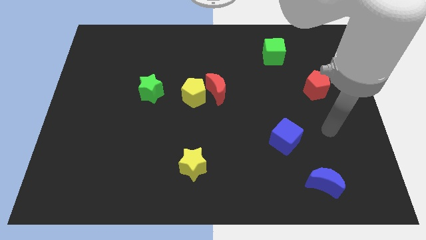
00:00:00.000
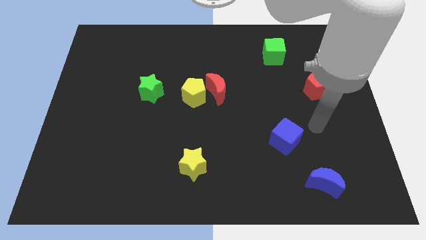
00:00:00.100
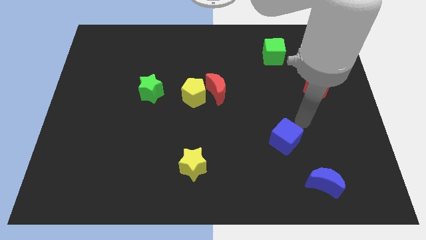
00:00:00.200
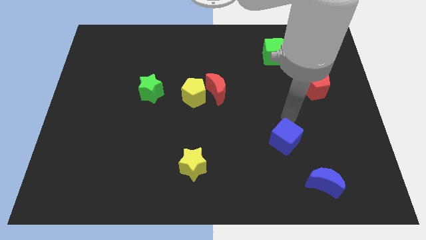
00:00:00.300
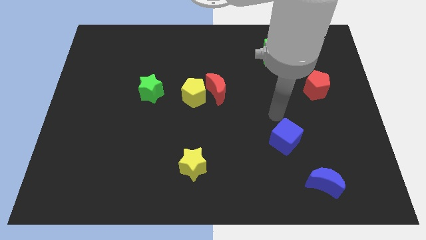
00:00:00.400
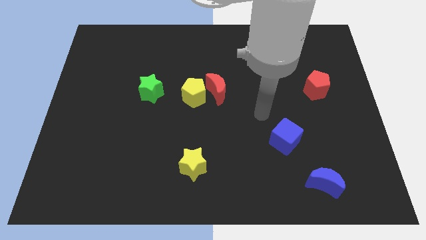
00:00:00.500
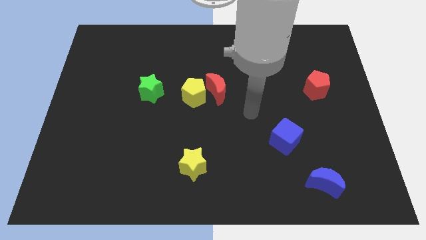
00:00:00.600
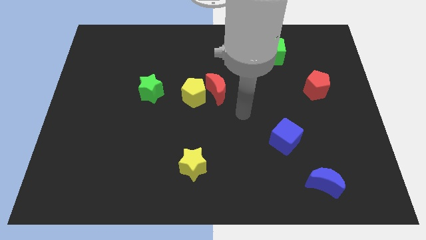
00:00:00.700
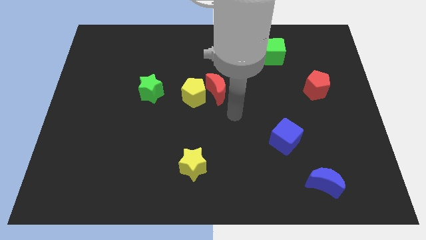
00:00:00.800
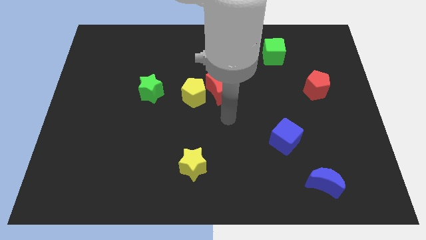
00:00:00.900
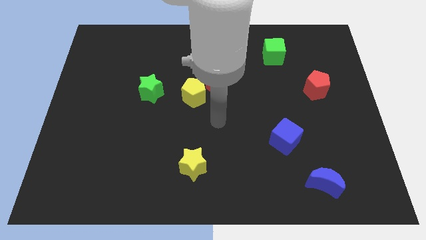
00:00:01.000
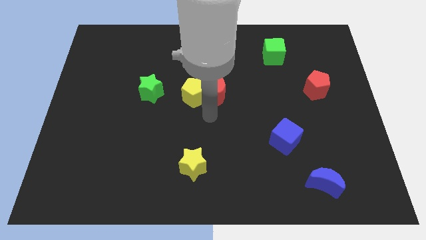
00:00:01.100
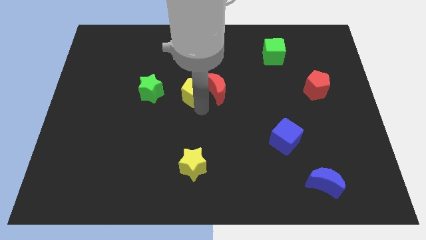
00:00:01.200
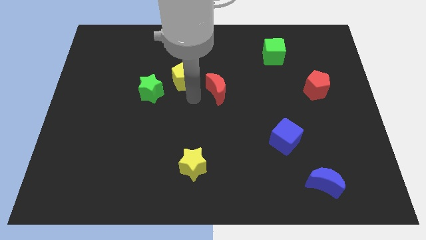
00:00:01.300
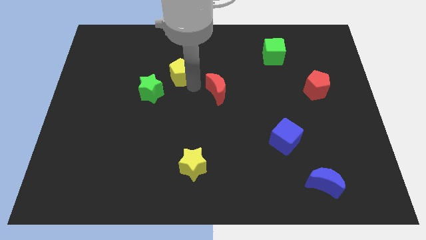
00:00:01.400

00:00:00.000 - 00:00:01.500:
pull the red moon apart from the yellow pentagon

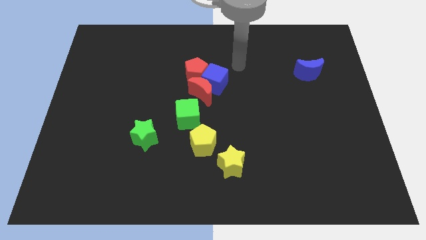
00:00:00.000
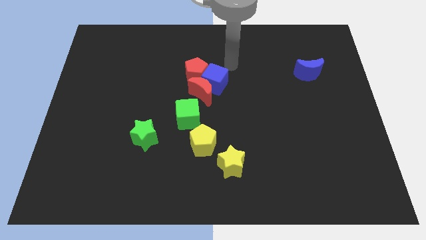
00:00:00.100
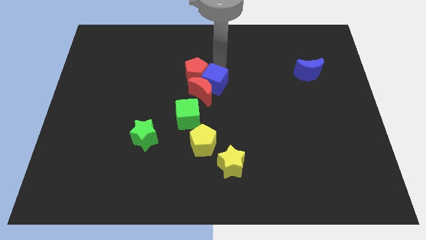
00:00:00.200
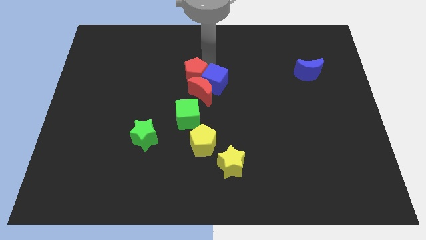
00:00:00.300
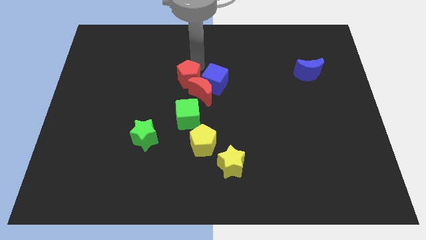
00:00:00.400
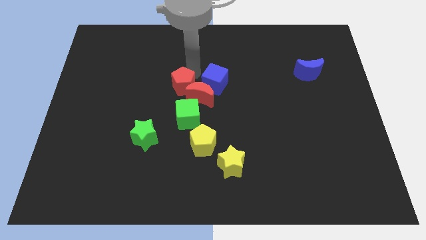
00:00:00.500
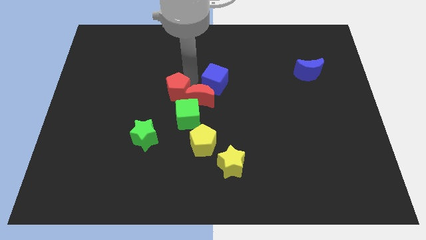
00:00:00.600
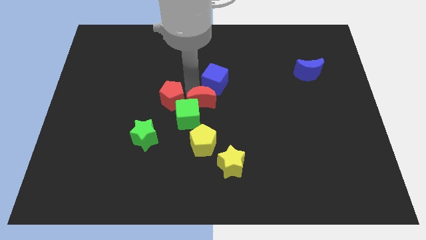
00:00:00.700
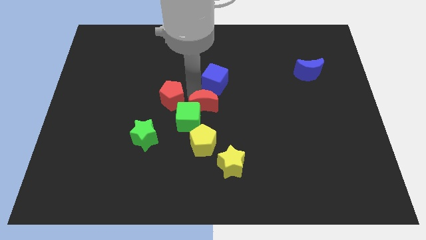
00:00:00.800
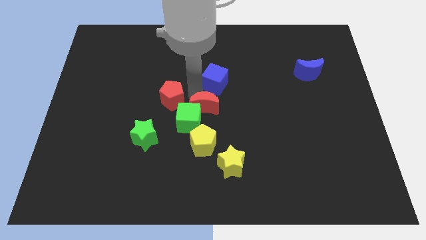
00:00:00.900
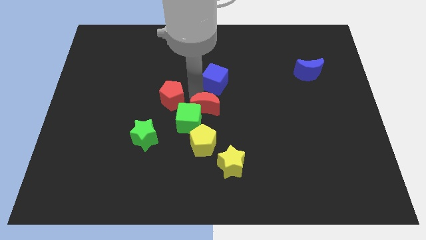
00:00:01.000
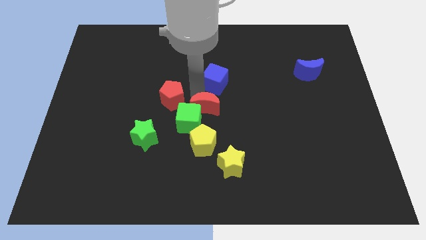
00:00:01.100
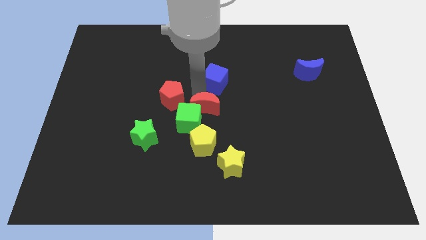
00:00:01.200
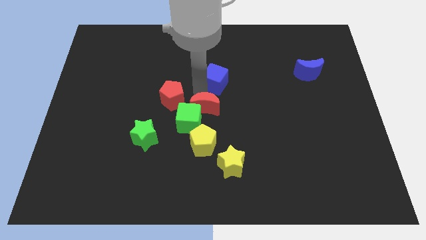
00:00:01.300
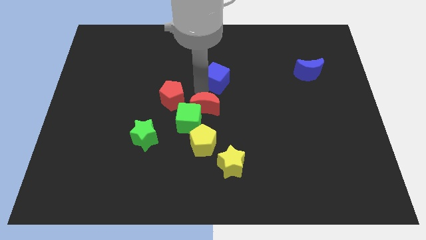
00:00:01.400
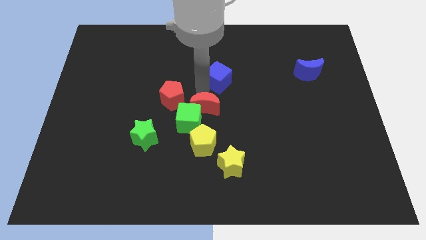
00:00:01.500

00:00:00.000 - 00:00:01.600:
move the blue cube away from the red moon and red pentagon

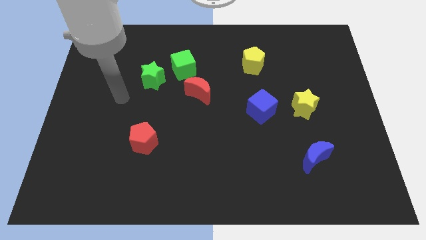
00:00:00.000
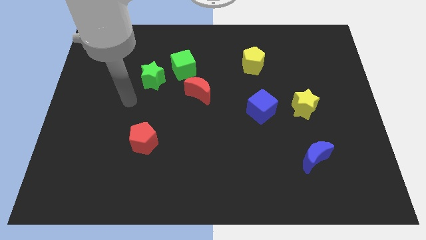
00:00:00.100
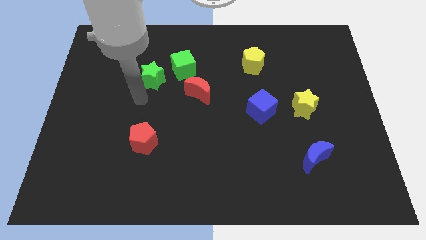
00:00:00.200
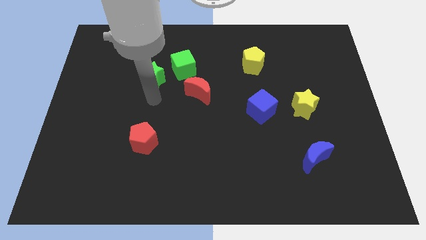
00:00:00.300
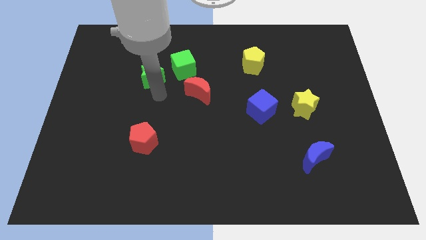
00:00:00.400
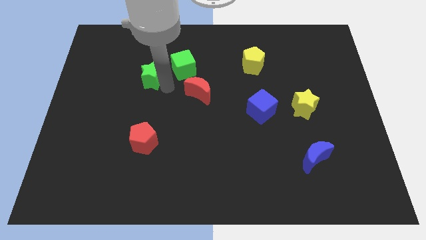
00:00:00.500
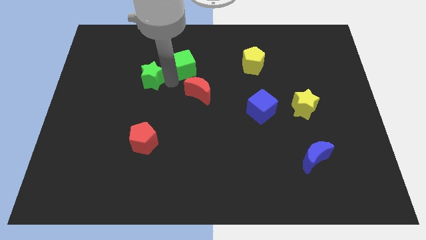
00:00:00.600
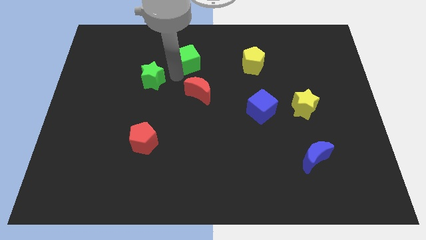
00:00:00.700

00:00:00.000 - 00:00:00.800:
move the green star away from the green cube

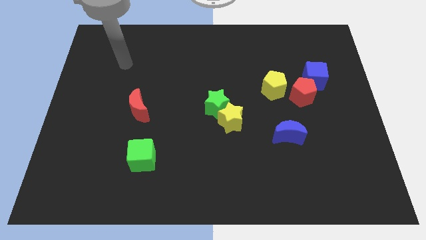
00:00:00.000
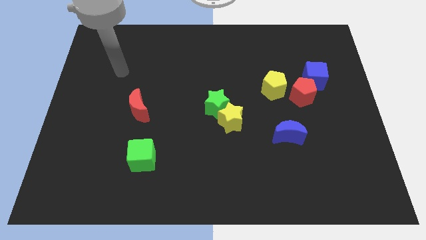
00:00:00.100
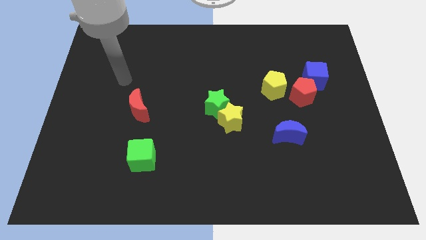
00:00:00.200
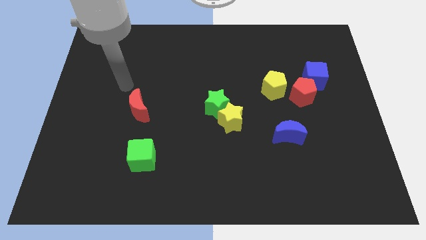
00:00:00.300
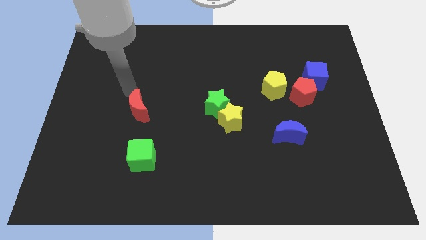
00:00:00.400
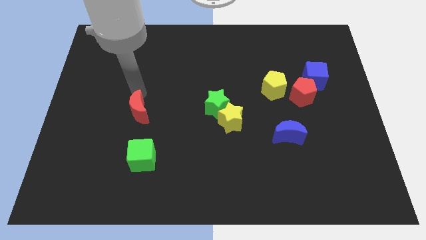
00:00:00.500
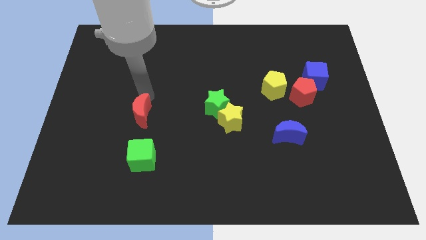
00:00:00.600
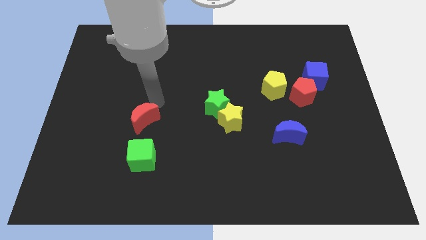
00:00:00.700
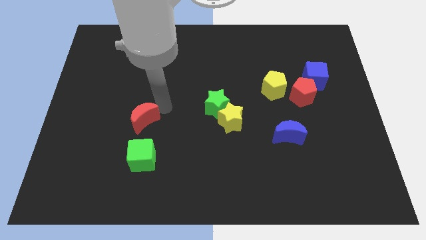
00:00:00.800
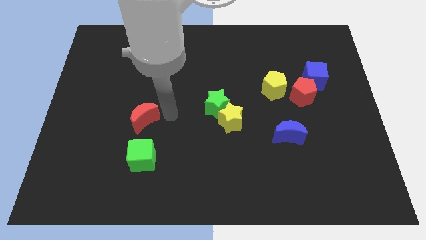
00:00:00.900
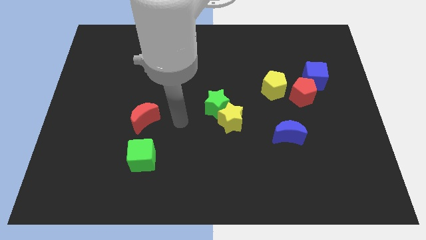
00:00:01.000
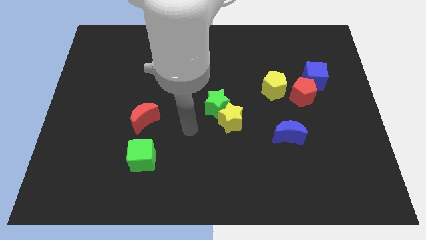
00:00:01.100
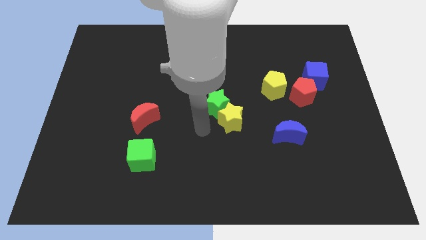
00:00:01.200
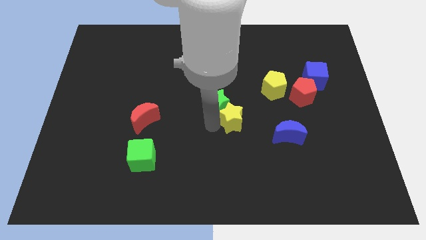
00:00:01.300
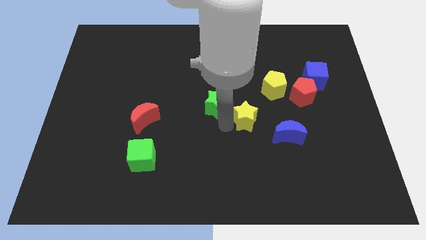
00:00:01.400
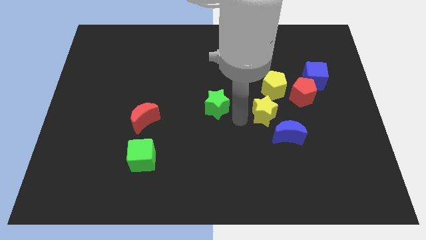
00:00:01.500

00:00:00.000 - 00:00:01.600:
separate the green star from the yellow star

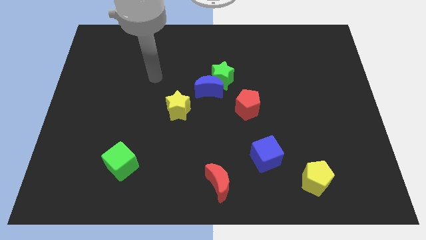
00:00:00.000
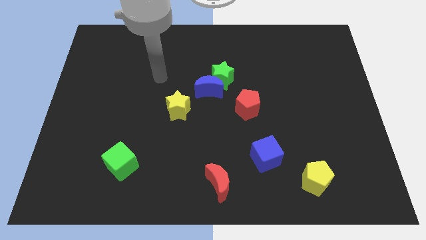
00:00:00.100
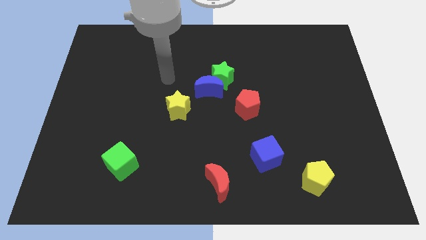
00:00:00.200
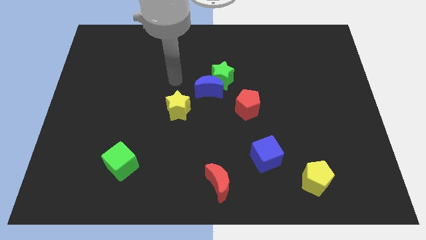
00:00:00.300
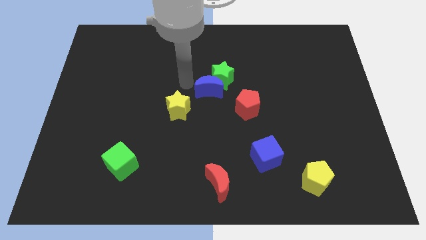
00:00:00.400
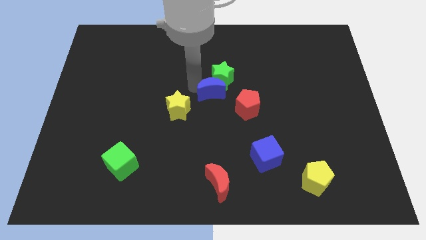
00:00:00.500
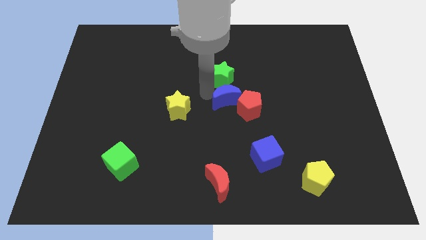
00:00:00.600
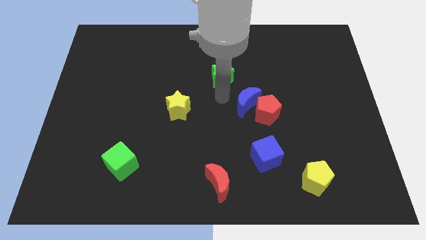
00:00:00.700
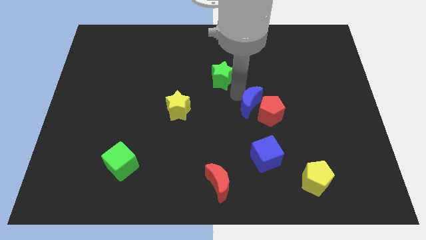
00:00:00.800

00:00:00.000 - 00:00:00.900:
separate the green star from the blue moon

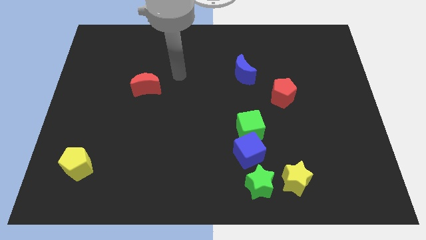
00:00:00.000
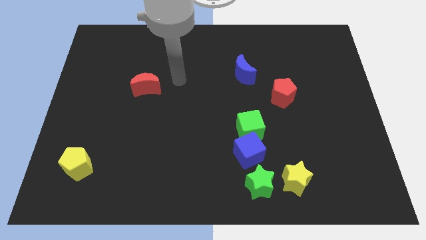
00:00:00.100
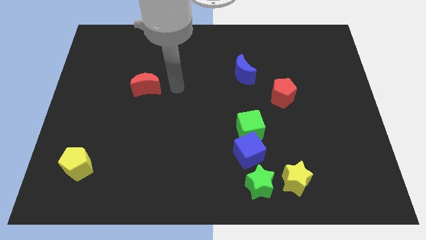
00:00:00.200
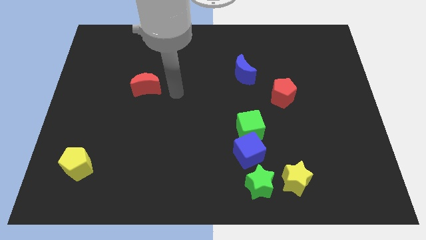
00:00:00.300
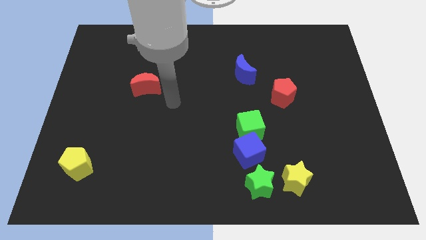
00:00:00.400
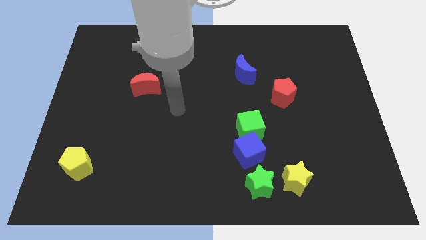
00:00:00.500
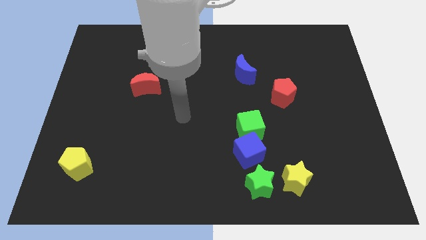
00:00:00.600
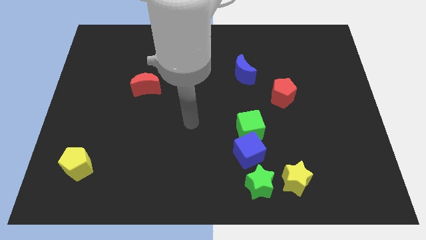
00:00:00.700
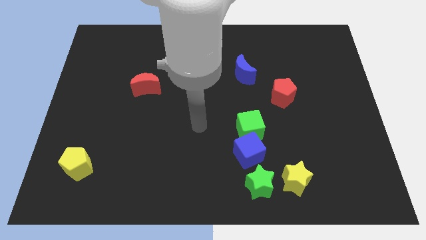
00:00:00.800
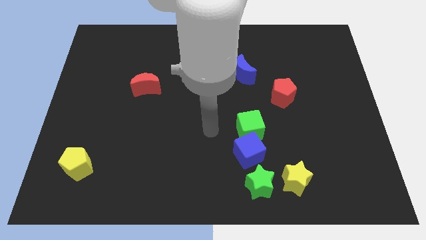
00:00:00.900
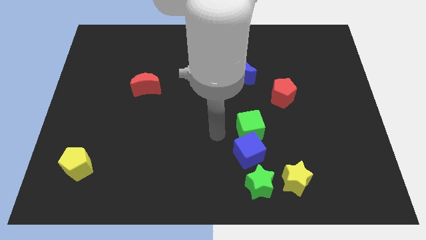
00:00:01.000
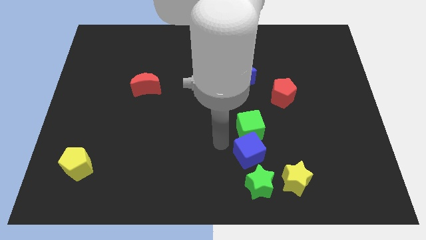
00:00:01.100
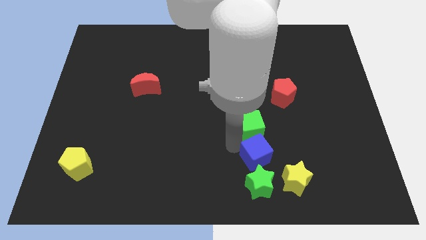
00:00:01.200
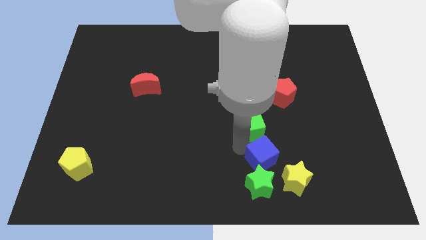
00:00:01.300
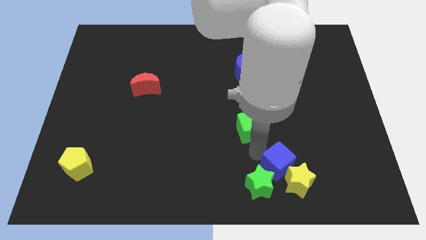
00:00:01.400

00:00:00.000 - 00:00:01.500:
separate the green cube from the blue cube

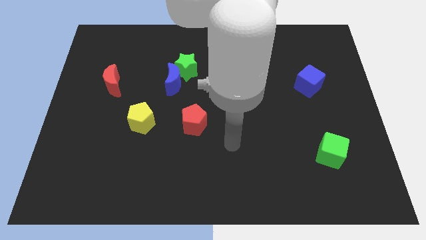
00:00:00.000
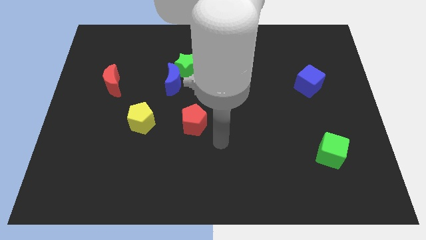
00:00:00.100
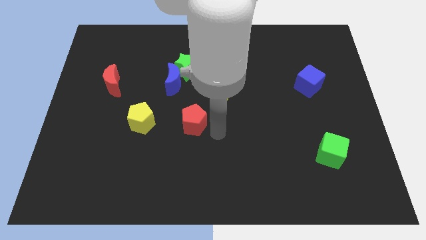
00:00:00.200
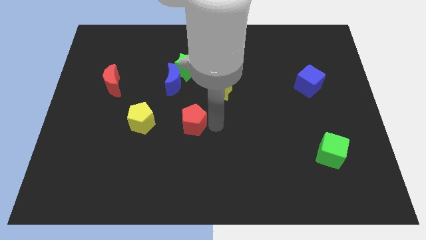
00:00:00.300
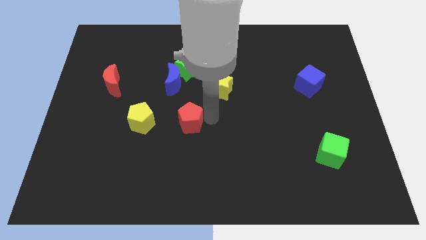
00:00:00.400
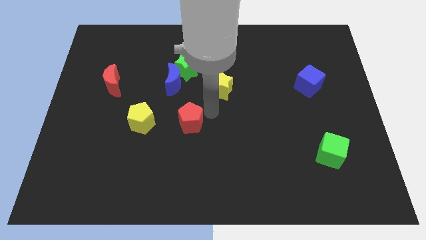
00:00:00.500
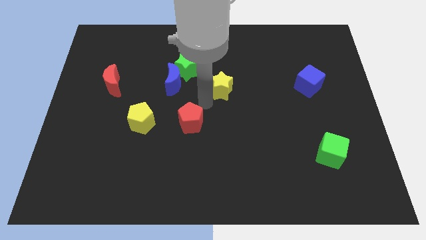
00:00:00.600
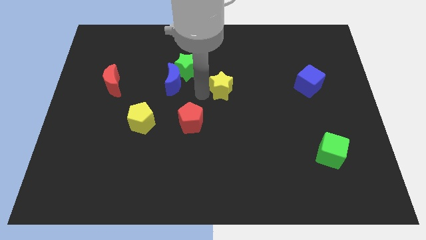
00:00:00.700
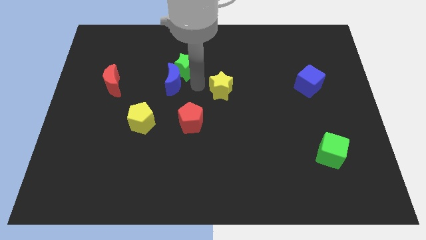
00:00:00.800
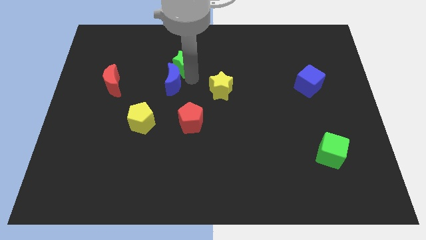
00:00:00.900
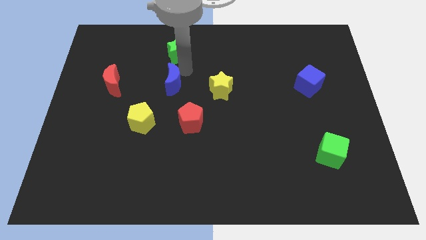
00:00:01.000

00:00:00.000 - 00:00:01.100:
move the blue moon away from the green star

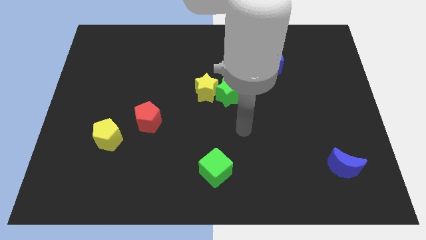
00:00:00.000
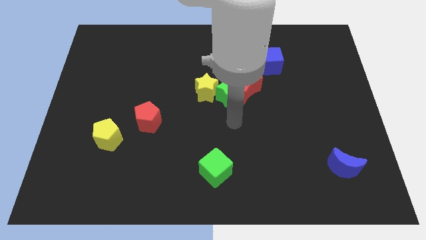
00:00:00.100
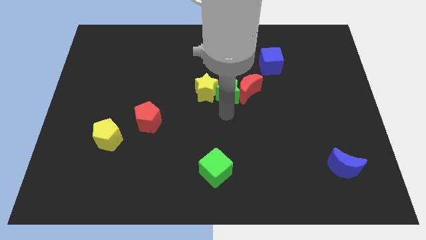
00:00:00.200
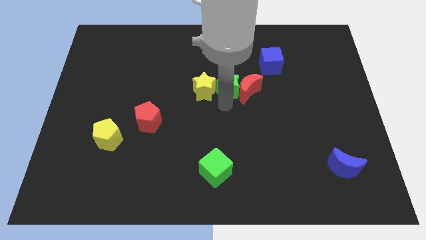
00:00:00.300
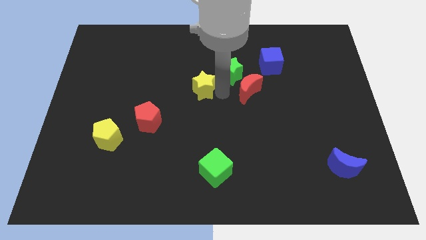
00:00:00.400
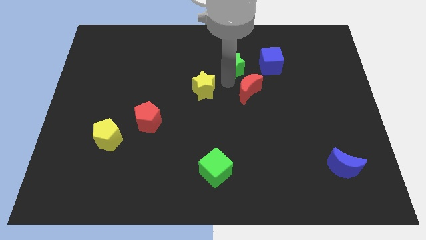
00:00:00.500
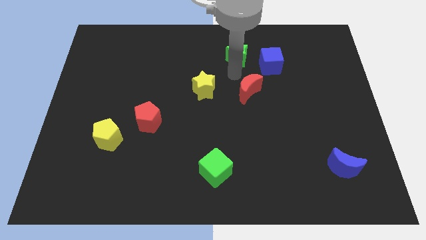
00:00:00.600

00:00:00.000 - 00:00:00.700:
separate the red moon from the green star
